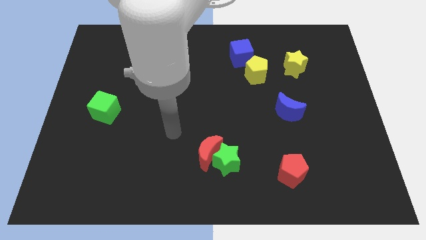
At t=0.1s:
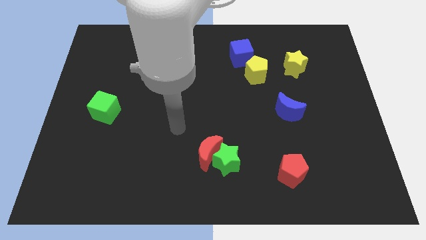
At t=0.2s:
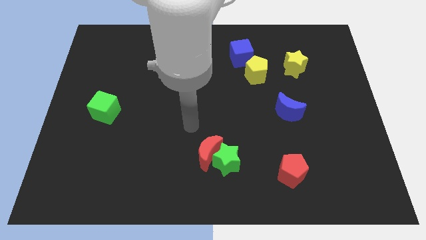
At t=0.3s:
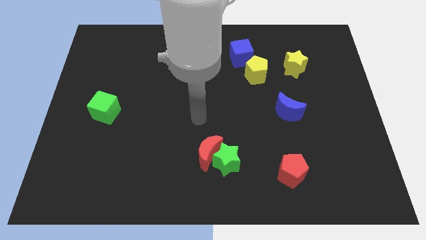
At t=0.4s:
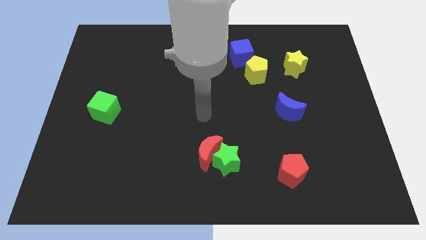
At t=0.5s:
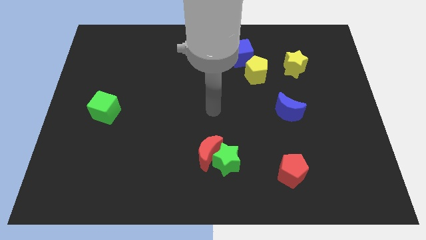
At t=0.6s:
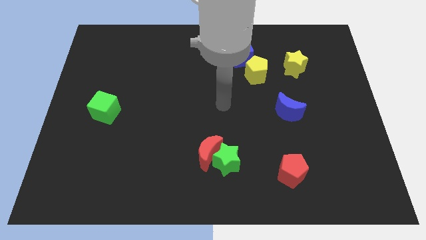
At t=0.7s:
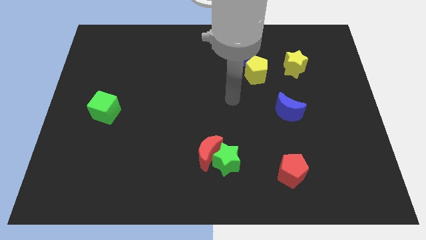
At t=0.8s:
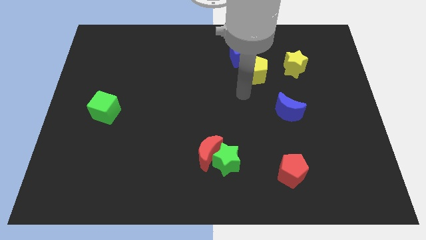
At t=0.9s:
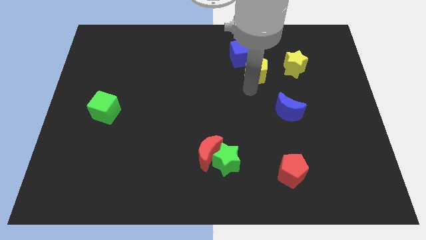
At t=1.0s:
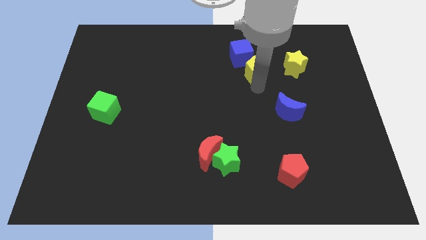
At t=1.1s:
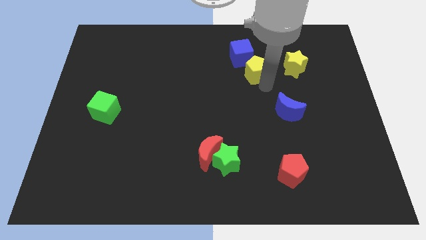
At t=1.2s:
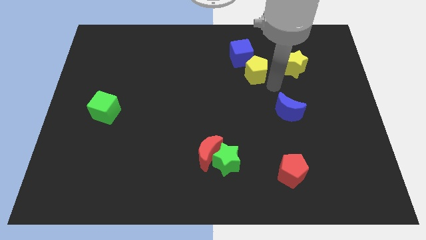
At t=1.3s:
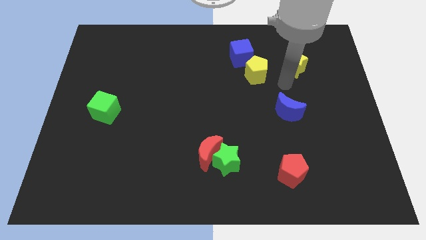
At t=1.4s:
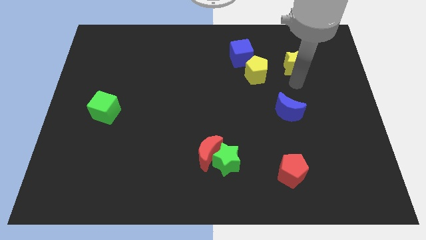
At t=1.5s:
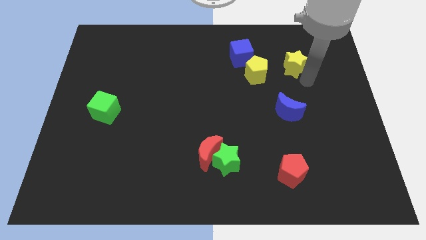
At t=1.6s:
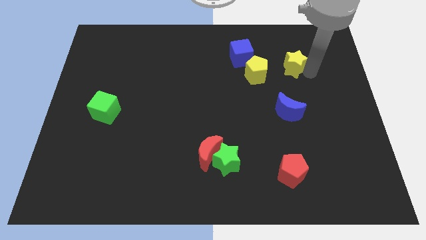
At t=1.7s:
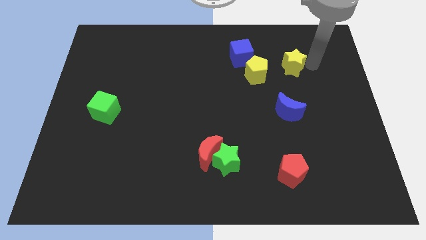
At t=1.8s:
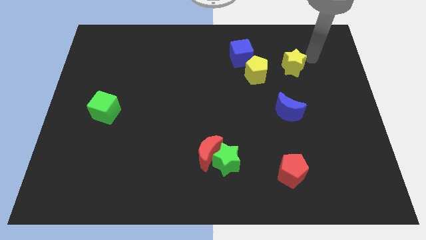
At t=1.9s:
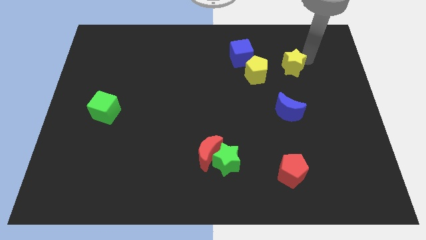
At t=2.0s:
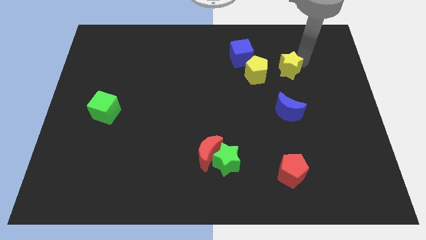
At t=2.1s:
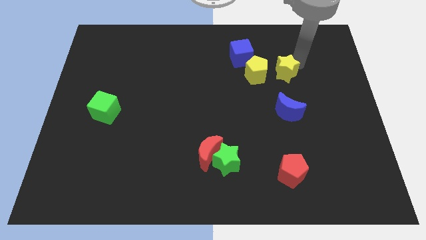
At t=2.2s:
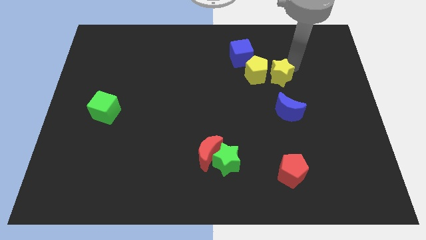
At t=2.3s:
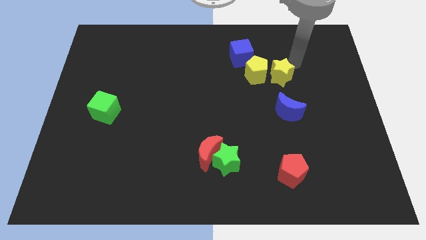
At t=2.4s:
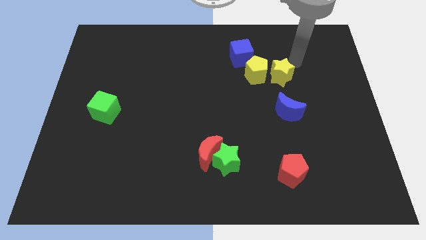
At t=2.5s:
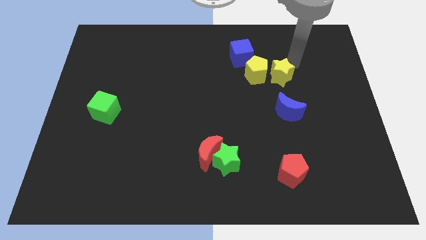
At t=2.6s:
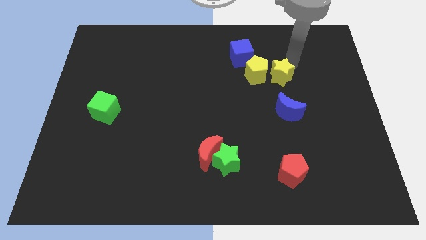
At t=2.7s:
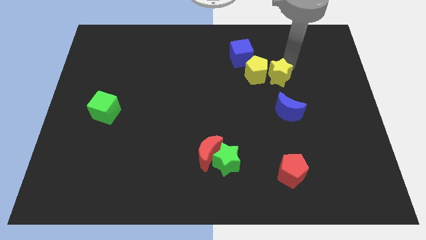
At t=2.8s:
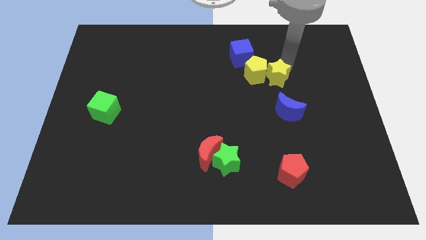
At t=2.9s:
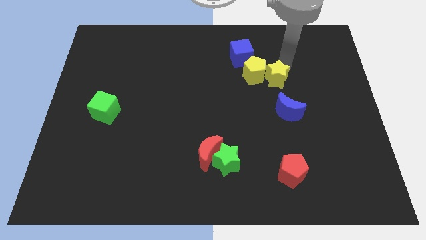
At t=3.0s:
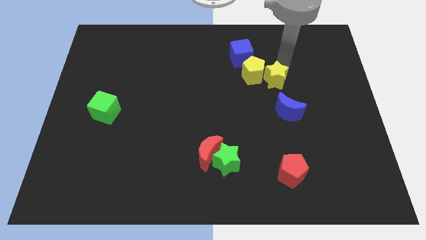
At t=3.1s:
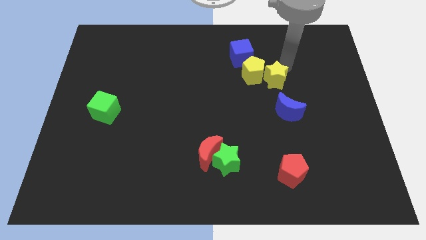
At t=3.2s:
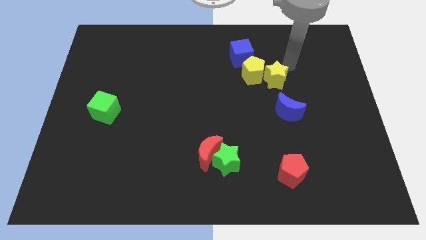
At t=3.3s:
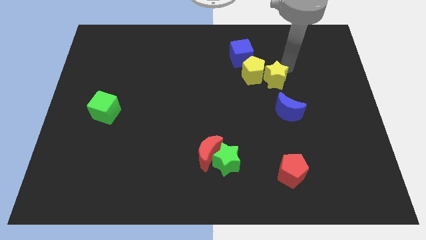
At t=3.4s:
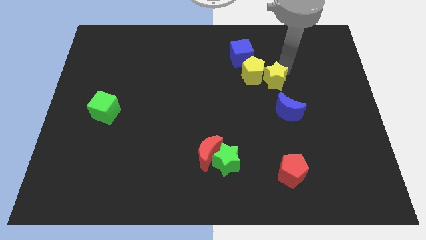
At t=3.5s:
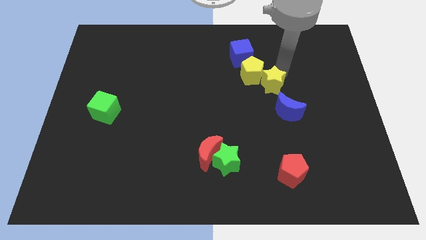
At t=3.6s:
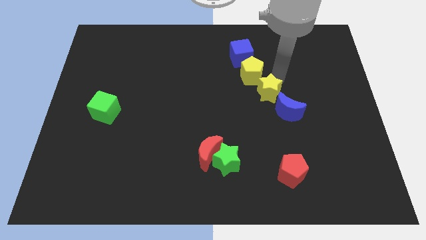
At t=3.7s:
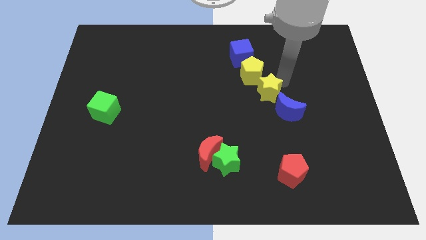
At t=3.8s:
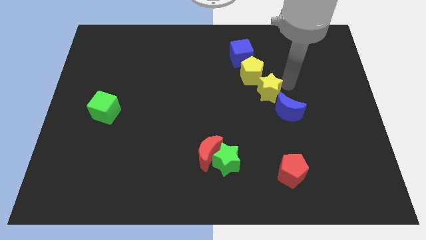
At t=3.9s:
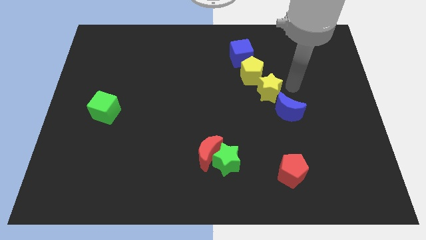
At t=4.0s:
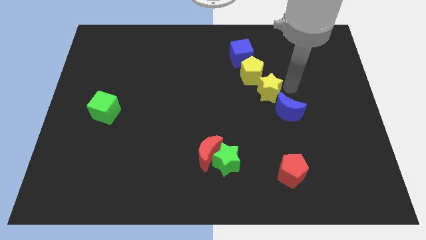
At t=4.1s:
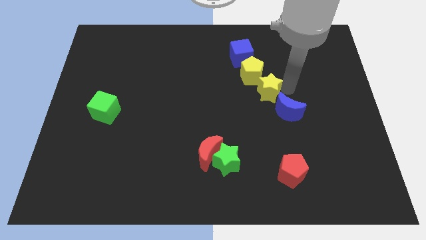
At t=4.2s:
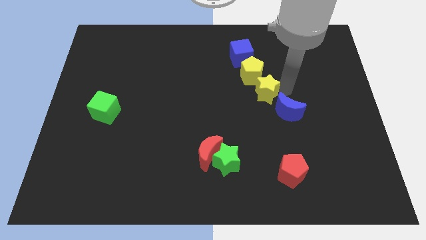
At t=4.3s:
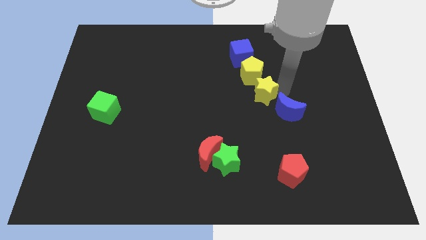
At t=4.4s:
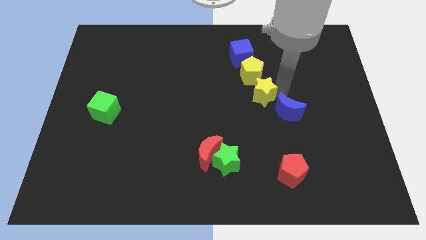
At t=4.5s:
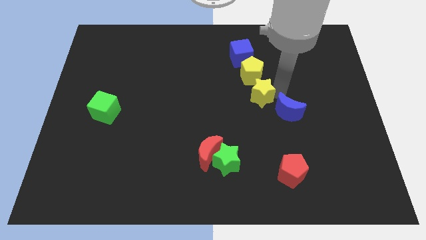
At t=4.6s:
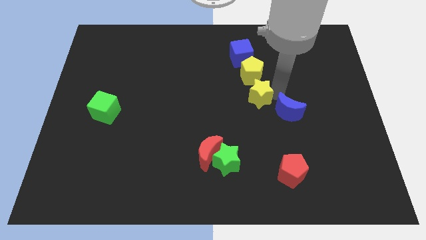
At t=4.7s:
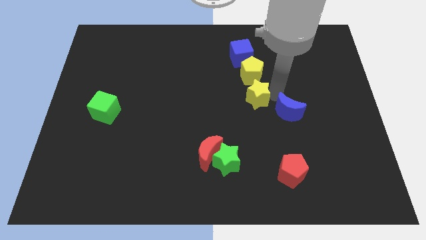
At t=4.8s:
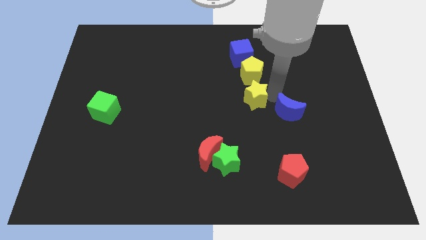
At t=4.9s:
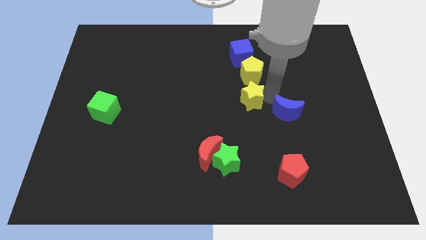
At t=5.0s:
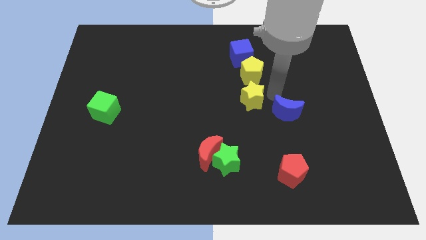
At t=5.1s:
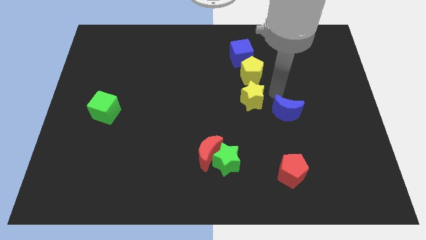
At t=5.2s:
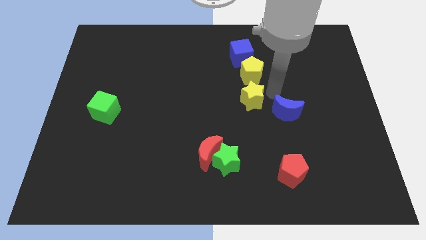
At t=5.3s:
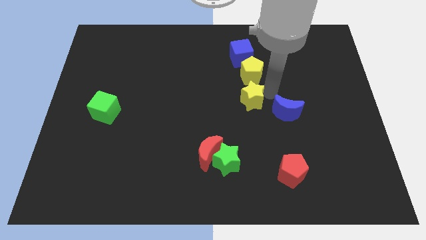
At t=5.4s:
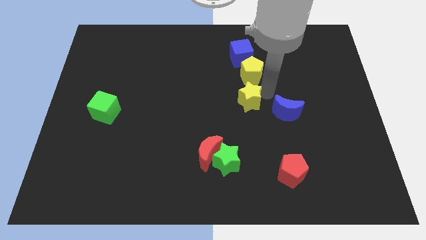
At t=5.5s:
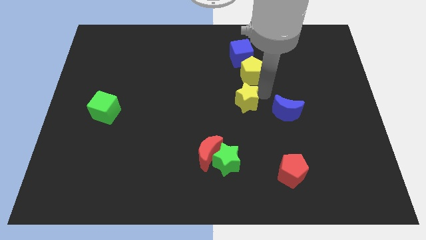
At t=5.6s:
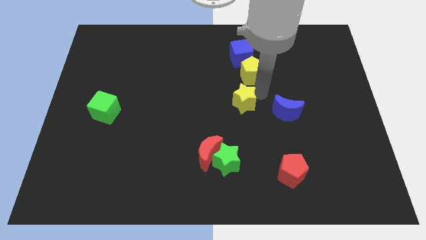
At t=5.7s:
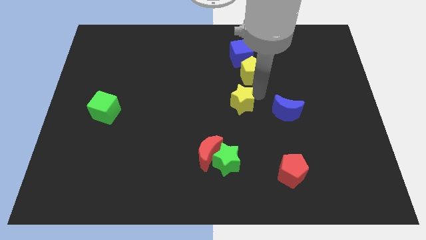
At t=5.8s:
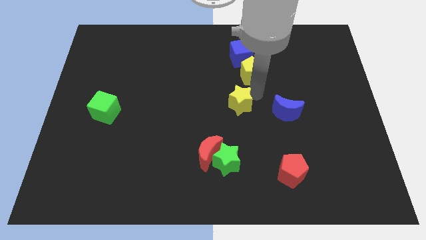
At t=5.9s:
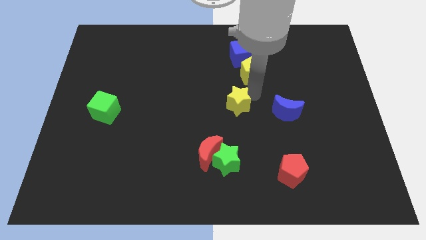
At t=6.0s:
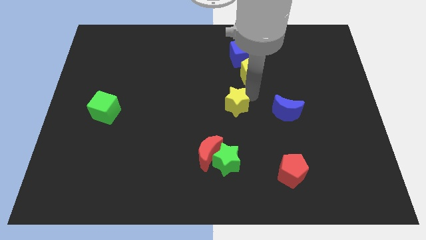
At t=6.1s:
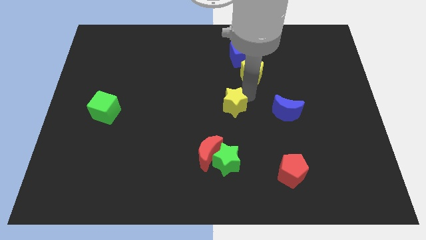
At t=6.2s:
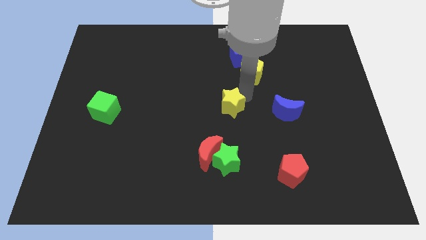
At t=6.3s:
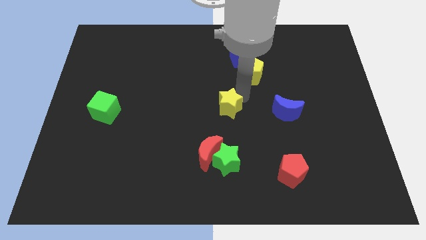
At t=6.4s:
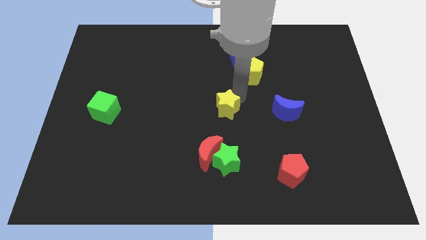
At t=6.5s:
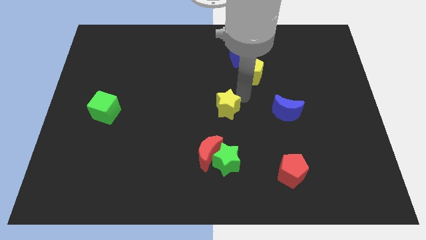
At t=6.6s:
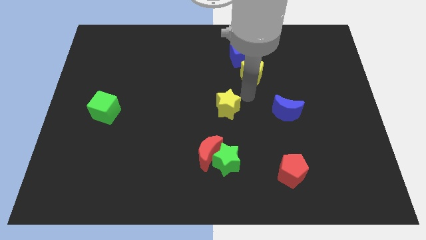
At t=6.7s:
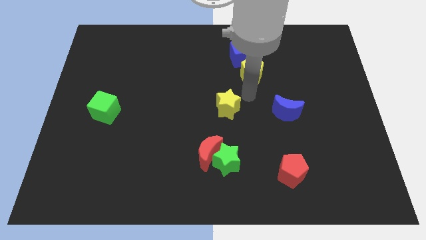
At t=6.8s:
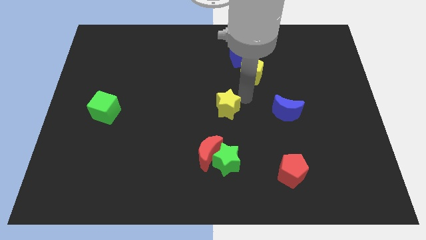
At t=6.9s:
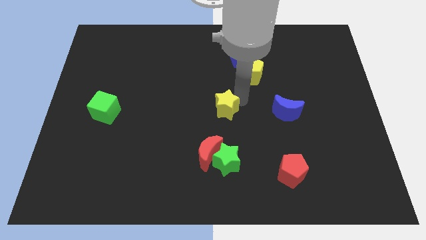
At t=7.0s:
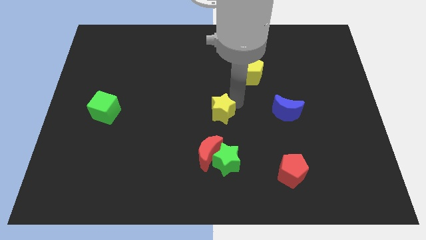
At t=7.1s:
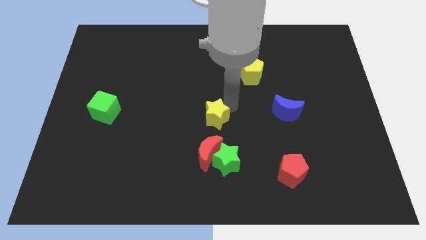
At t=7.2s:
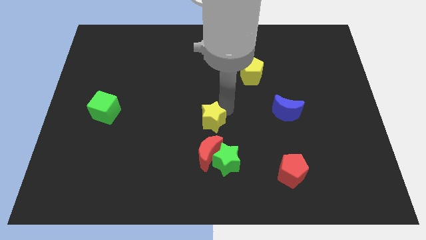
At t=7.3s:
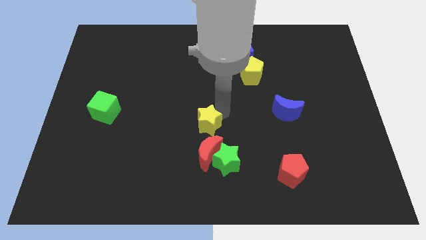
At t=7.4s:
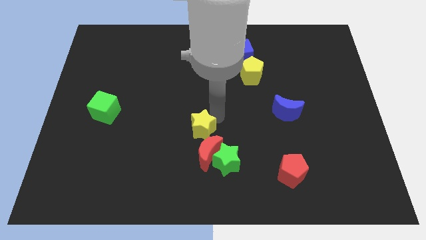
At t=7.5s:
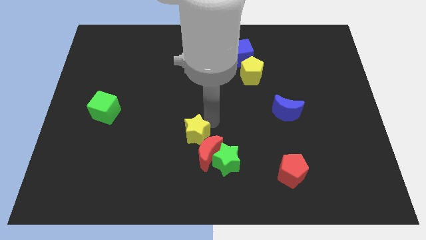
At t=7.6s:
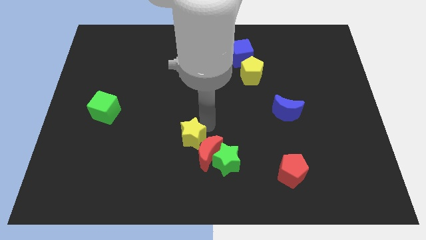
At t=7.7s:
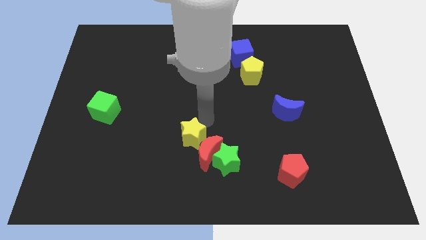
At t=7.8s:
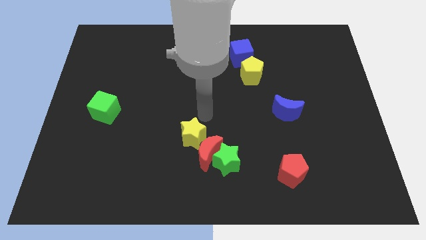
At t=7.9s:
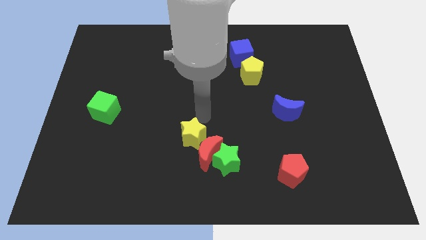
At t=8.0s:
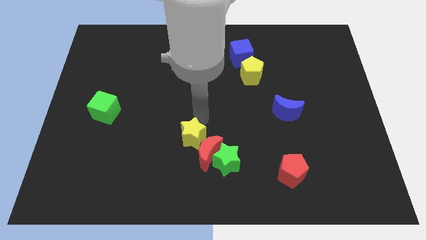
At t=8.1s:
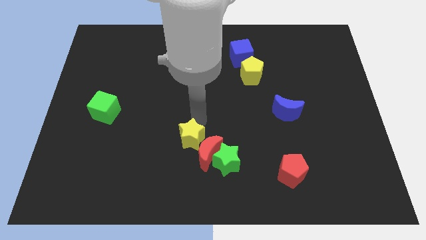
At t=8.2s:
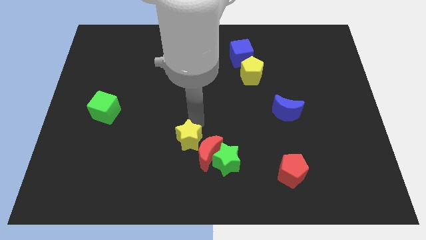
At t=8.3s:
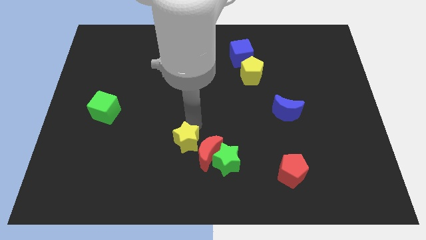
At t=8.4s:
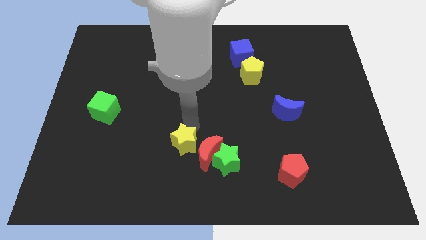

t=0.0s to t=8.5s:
move the yellow star to the left of the green star

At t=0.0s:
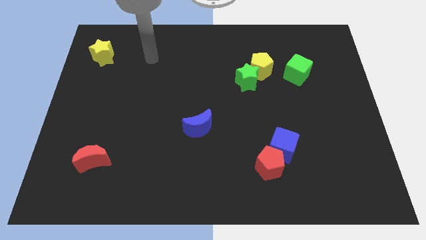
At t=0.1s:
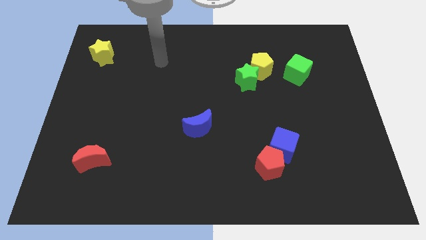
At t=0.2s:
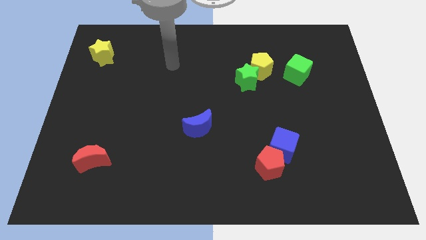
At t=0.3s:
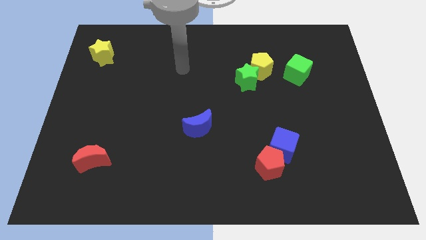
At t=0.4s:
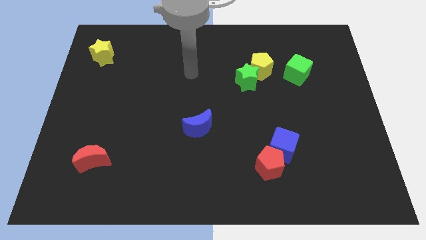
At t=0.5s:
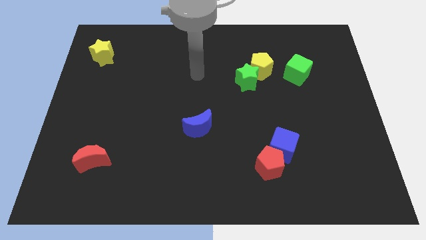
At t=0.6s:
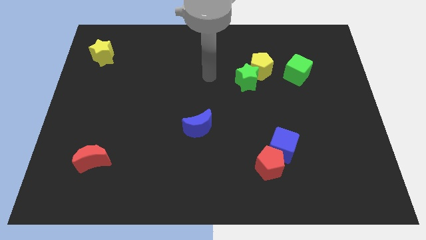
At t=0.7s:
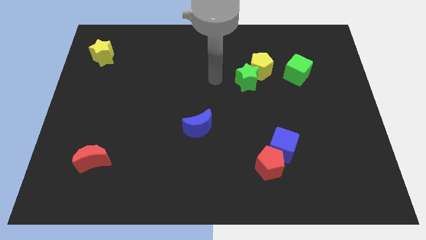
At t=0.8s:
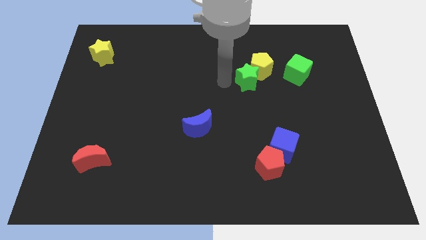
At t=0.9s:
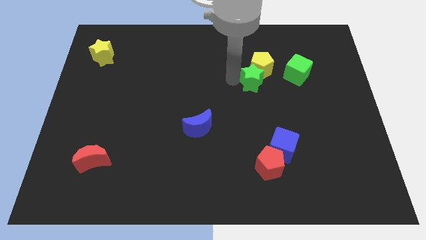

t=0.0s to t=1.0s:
slide the yellow pentagon diagonally up and to the left of the green cube
